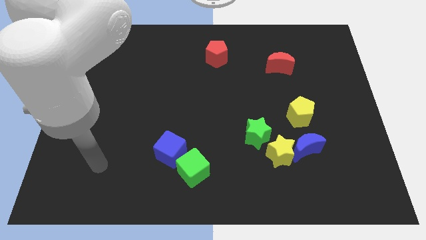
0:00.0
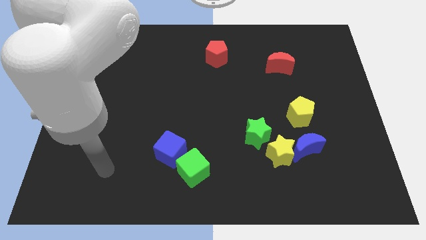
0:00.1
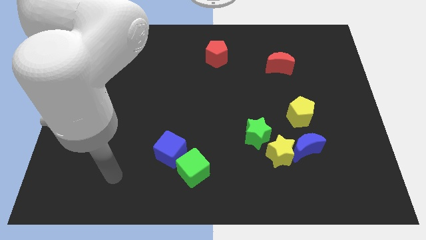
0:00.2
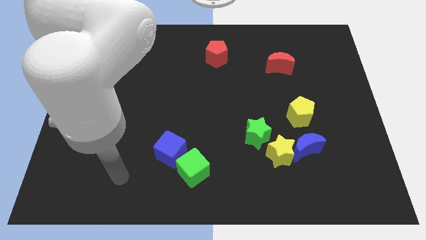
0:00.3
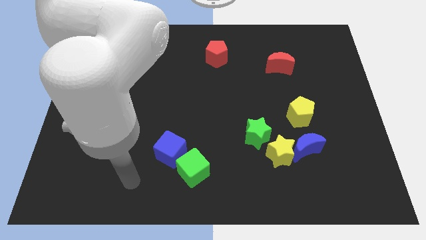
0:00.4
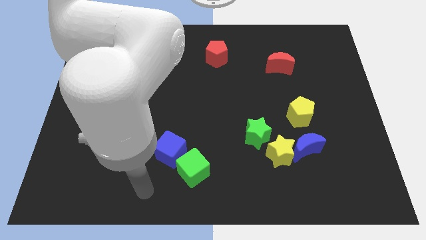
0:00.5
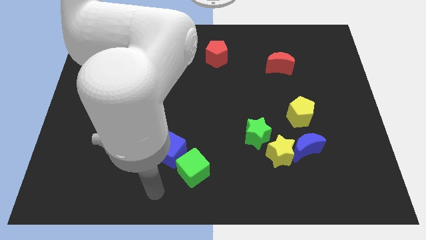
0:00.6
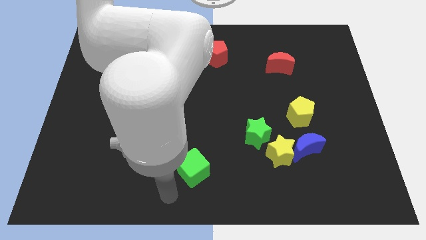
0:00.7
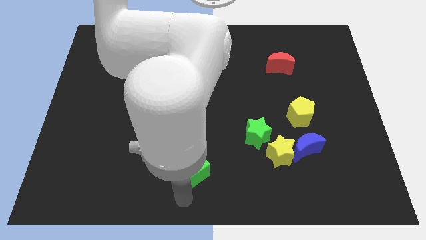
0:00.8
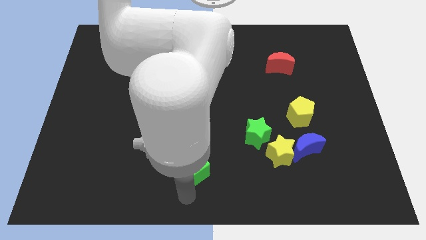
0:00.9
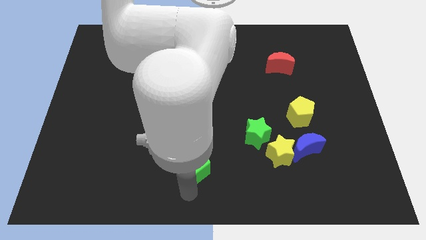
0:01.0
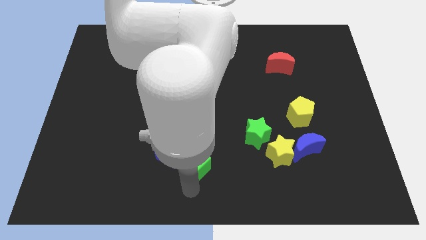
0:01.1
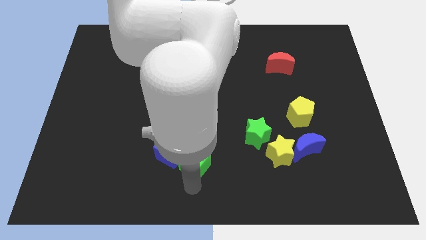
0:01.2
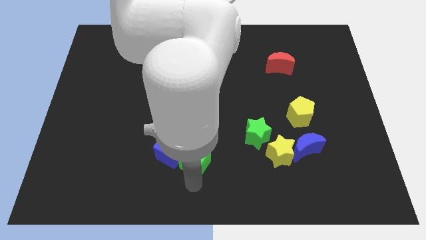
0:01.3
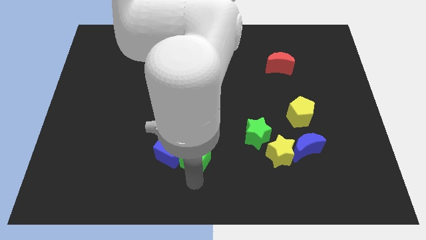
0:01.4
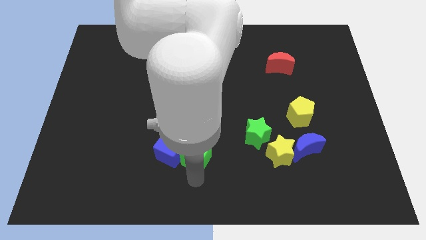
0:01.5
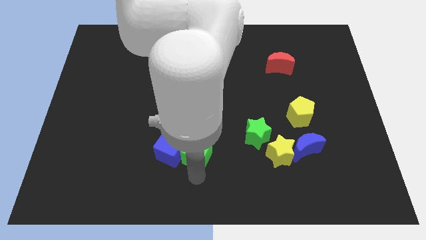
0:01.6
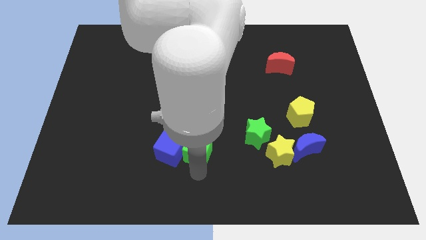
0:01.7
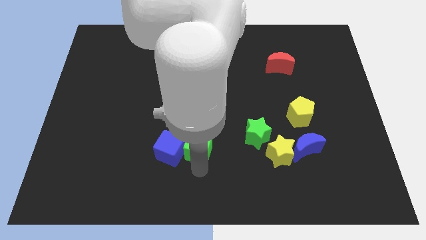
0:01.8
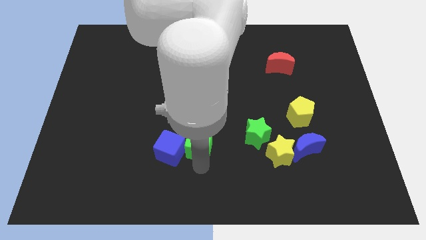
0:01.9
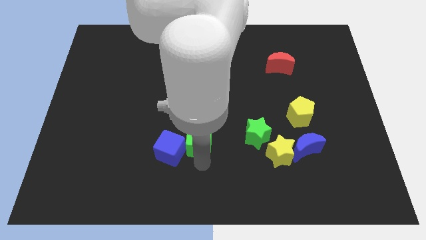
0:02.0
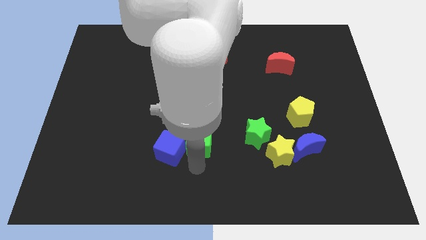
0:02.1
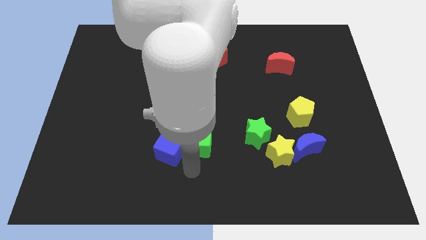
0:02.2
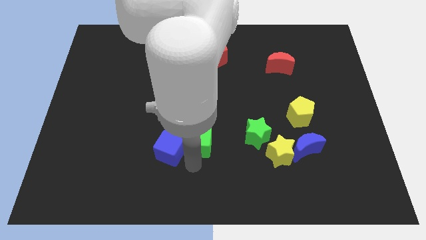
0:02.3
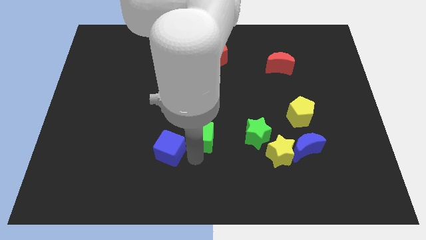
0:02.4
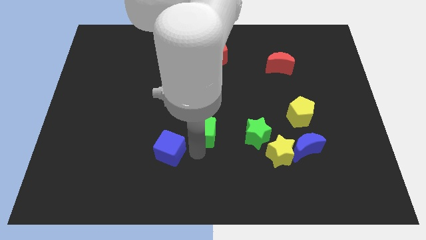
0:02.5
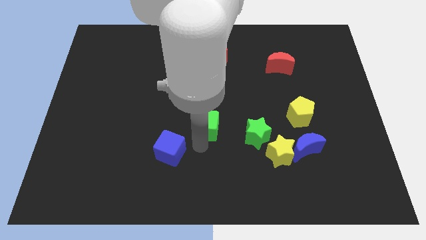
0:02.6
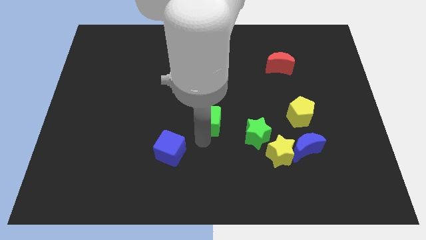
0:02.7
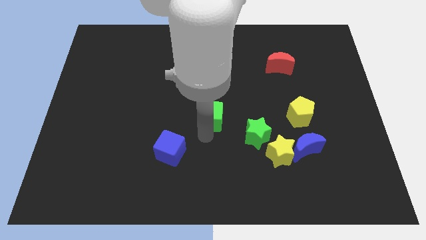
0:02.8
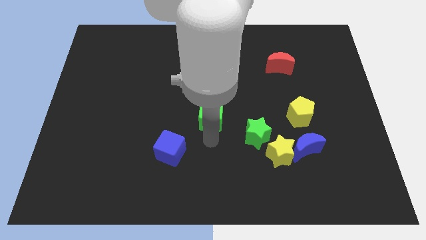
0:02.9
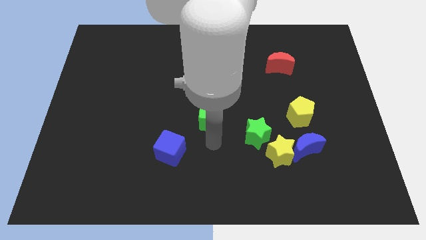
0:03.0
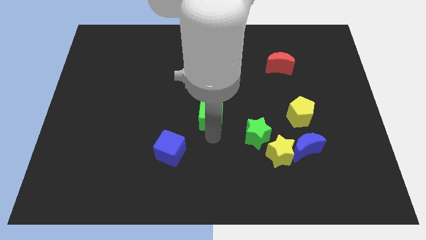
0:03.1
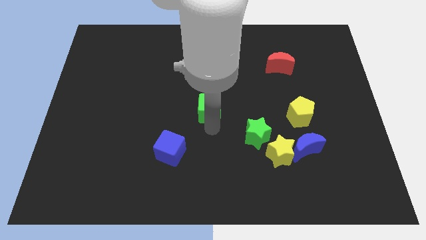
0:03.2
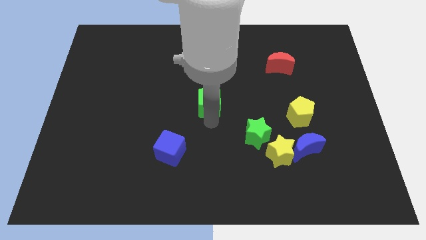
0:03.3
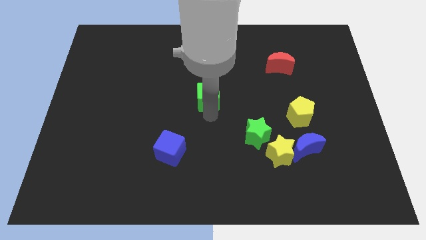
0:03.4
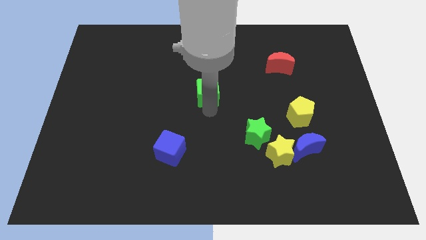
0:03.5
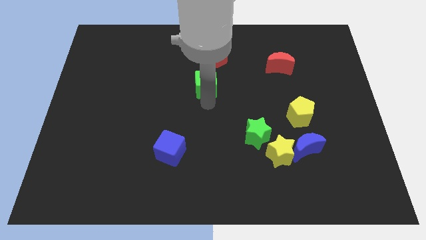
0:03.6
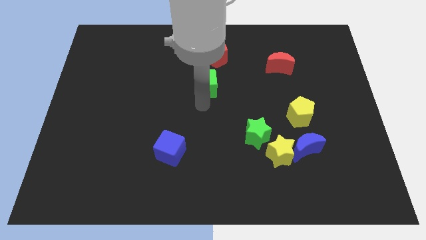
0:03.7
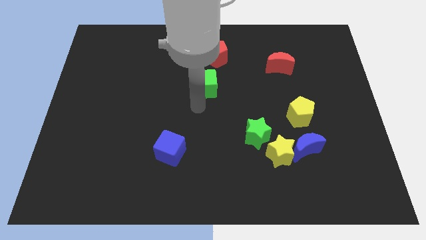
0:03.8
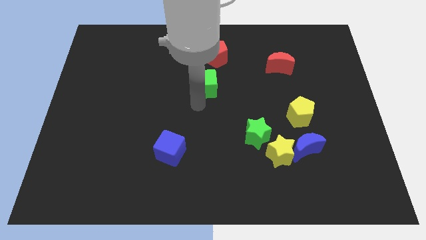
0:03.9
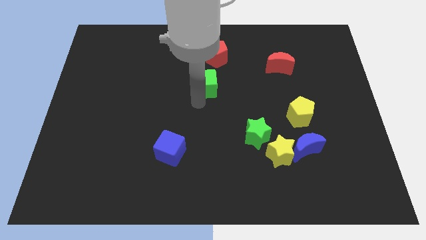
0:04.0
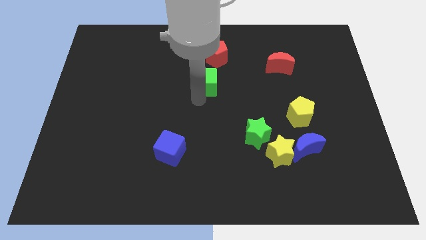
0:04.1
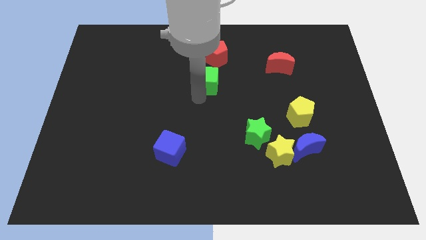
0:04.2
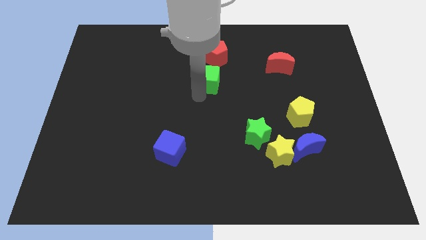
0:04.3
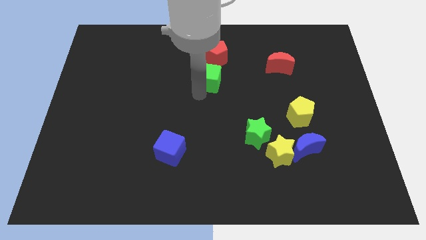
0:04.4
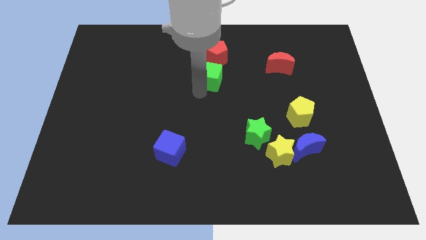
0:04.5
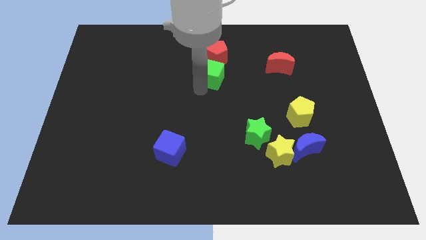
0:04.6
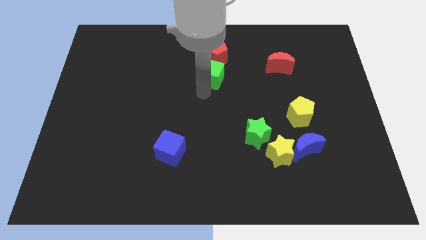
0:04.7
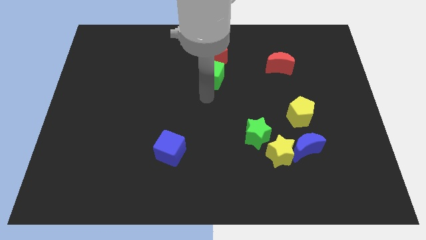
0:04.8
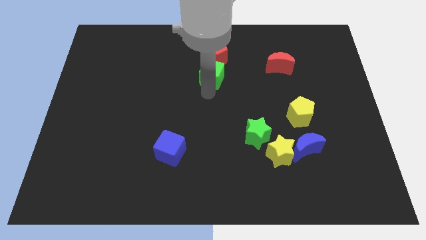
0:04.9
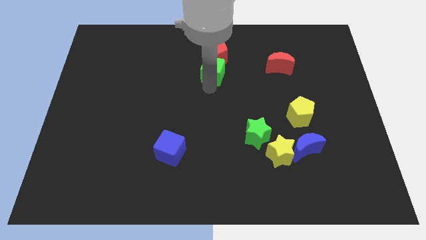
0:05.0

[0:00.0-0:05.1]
put the green cube towards the red pentagon

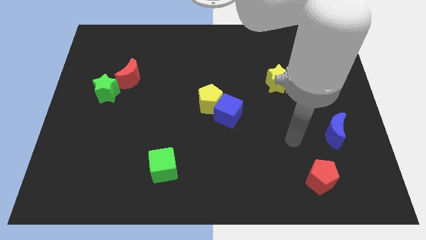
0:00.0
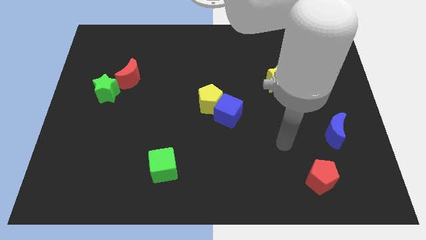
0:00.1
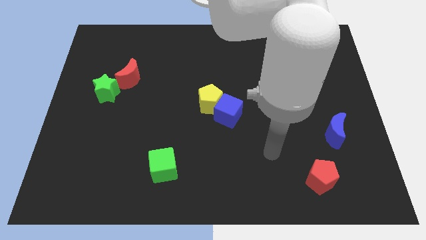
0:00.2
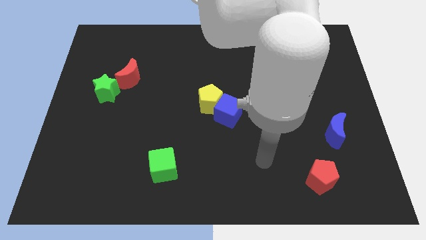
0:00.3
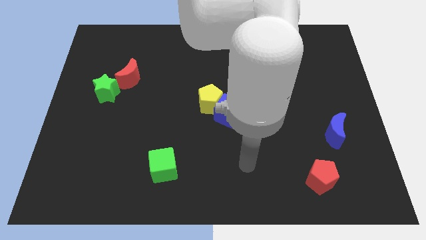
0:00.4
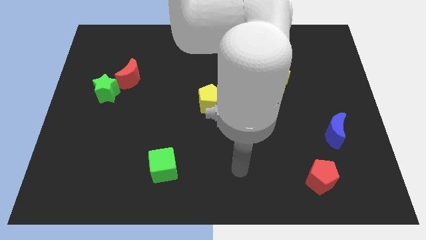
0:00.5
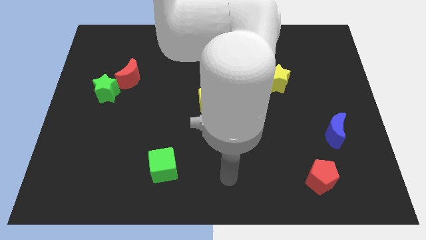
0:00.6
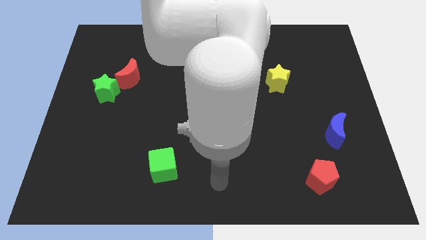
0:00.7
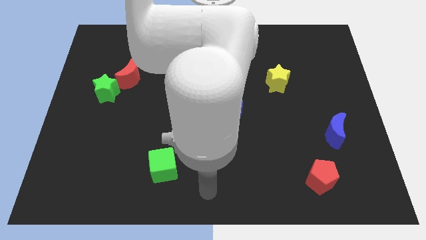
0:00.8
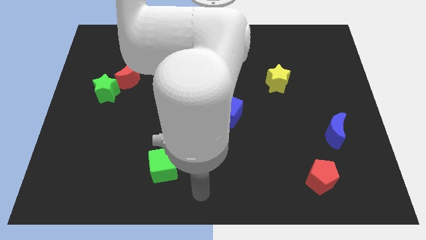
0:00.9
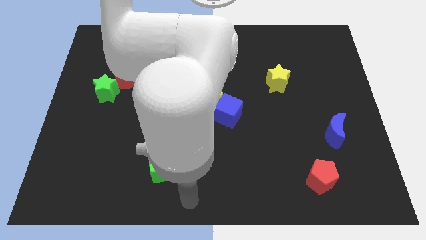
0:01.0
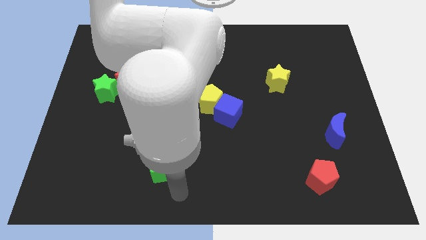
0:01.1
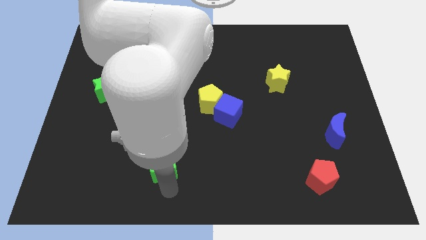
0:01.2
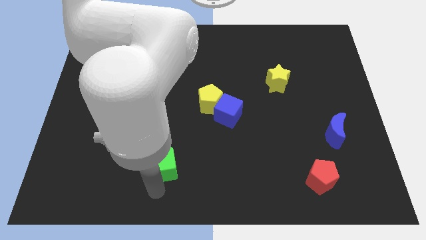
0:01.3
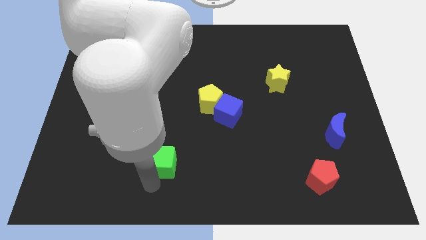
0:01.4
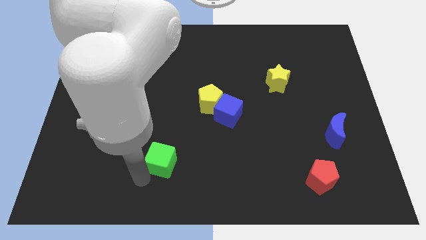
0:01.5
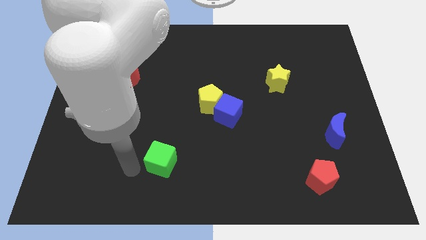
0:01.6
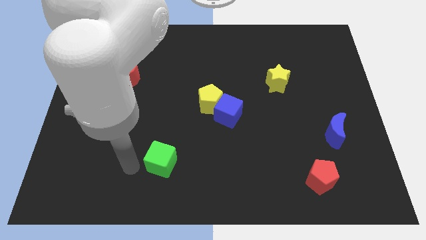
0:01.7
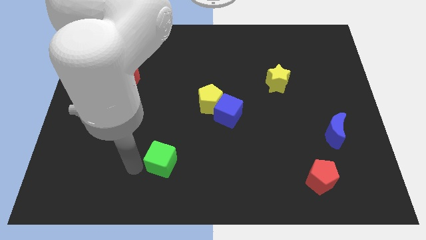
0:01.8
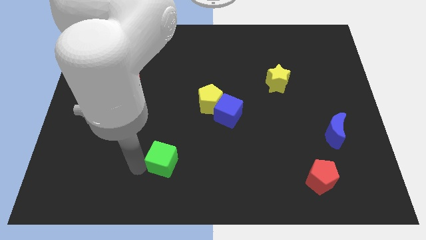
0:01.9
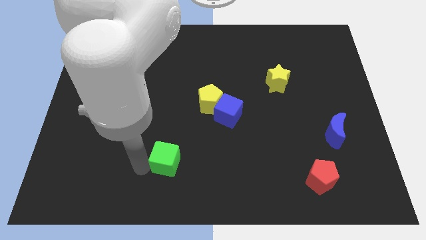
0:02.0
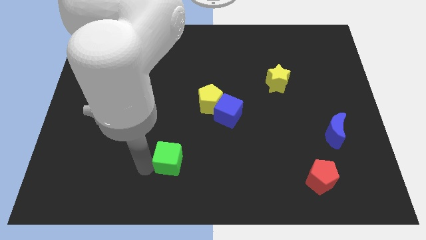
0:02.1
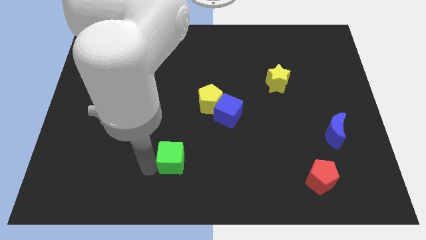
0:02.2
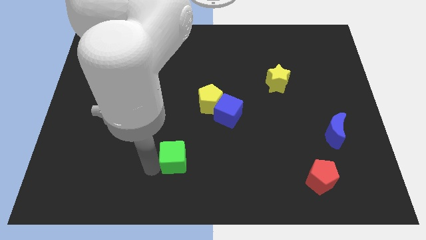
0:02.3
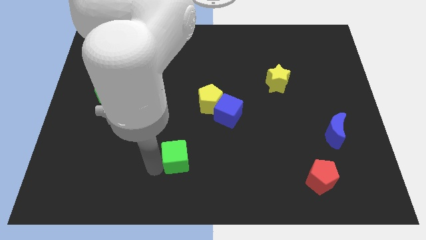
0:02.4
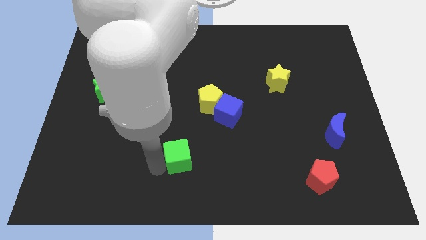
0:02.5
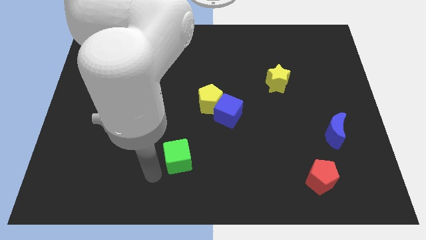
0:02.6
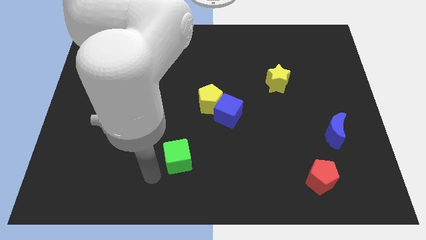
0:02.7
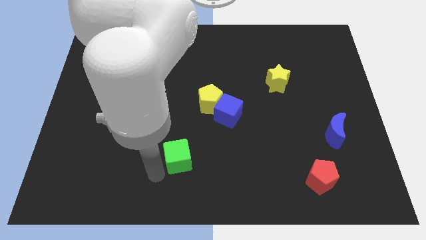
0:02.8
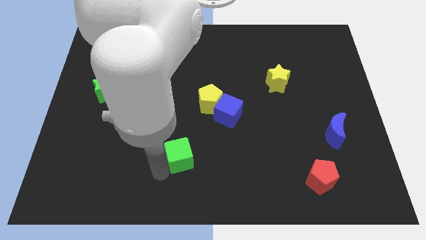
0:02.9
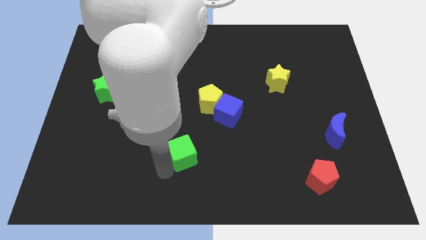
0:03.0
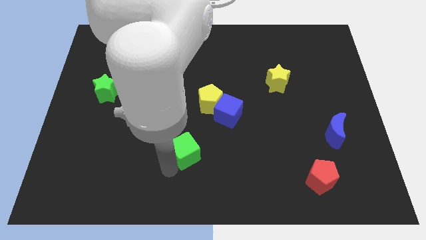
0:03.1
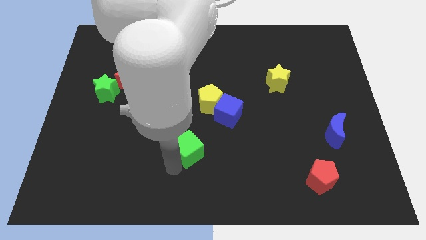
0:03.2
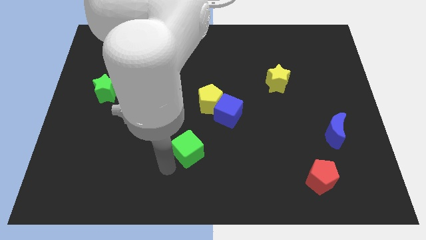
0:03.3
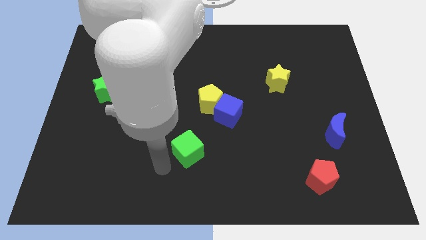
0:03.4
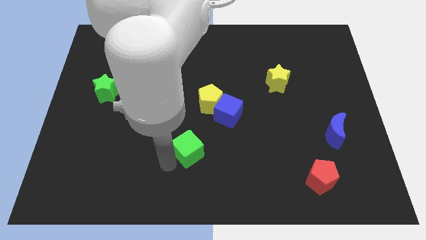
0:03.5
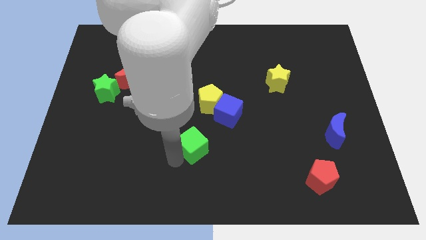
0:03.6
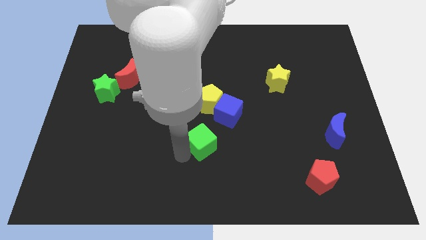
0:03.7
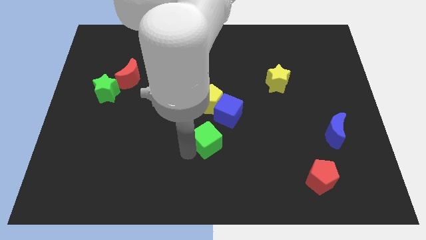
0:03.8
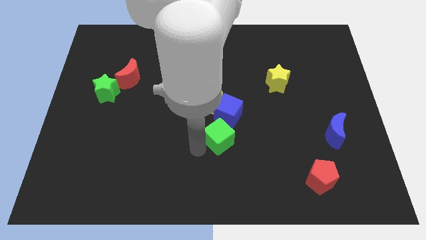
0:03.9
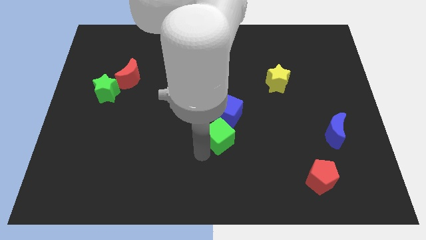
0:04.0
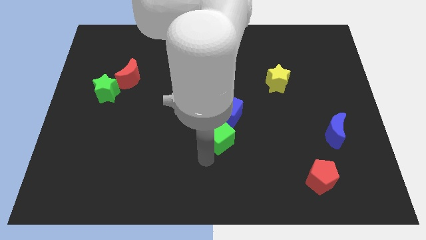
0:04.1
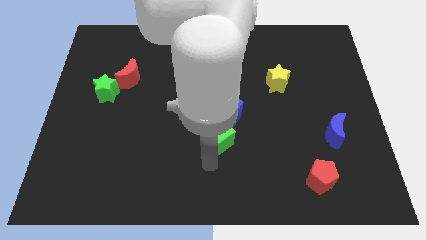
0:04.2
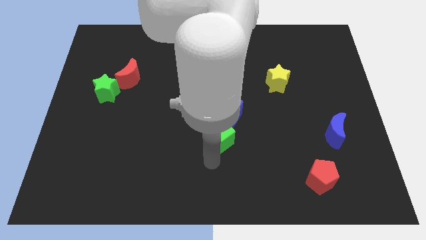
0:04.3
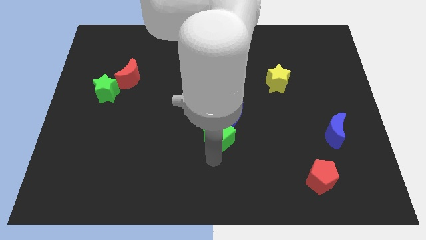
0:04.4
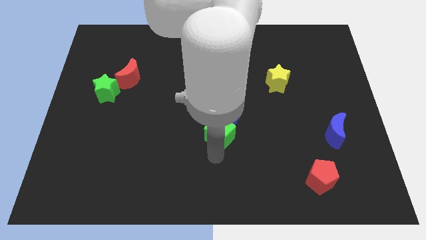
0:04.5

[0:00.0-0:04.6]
move the green cube next to the blue cube
